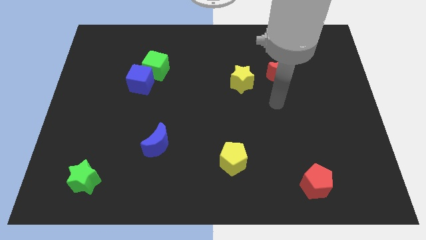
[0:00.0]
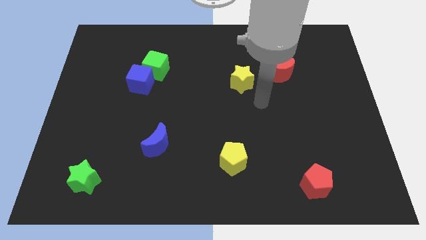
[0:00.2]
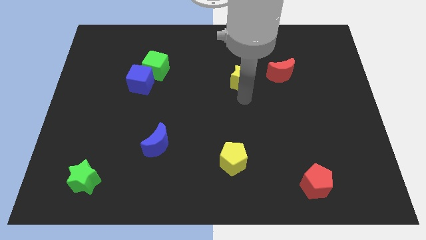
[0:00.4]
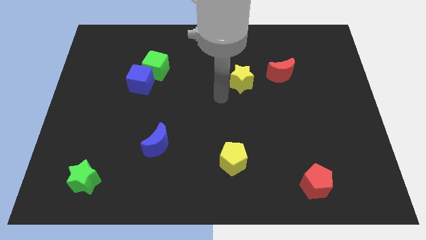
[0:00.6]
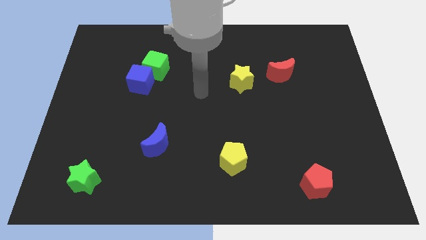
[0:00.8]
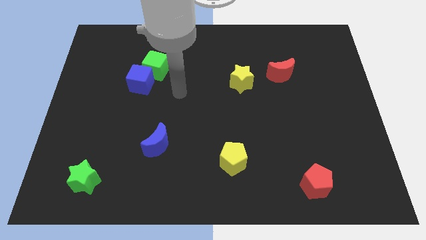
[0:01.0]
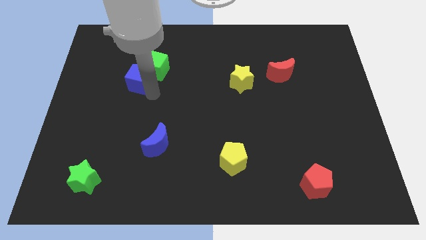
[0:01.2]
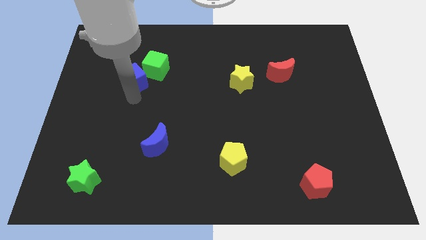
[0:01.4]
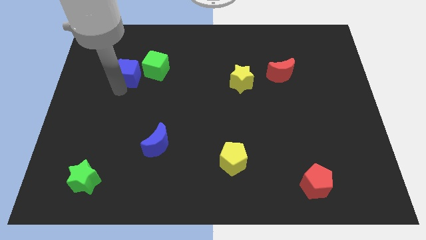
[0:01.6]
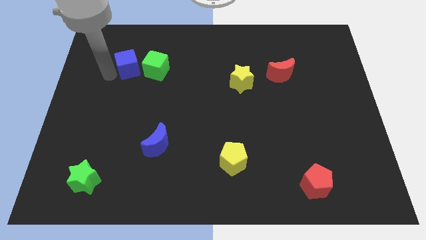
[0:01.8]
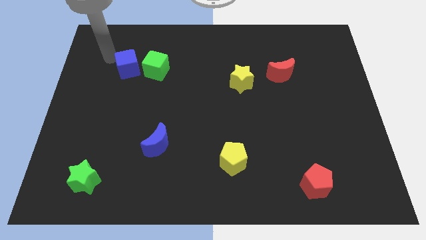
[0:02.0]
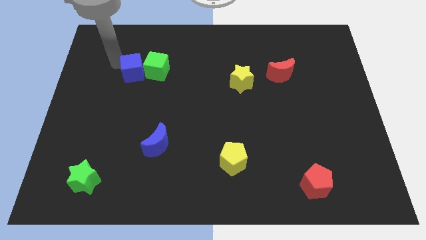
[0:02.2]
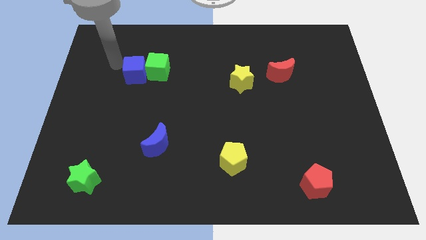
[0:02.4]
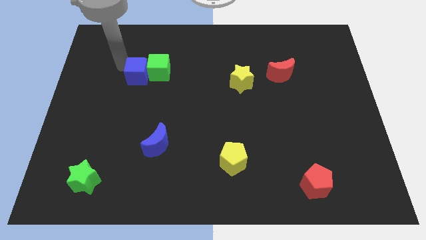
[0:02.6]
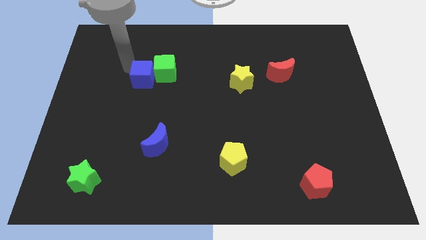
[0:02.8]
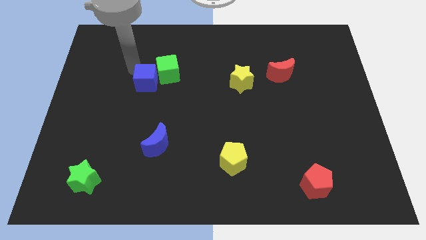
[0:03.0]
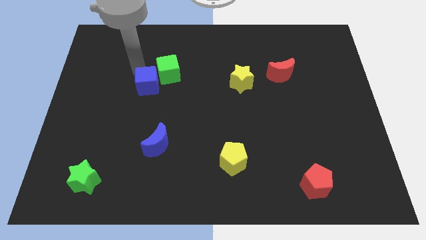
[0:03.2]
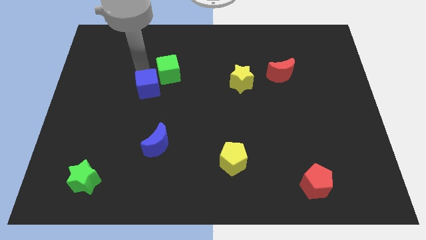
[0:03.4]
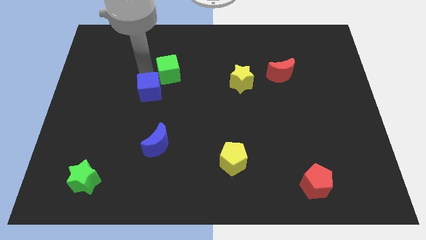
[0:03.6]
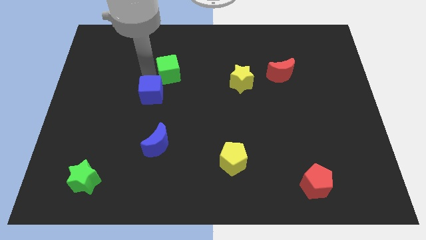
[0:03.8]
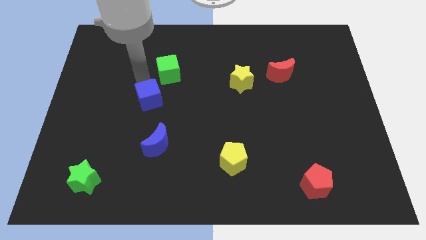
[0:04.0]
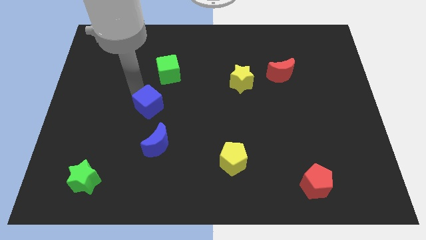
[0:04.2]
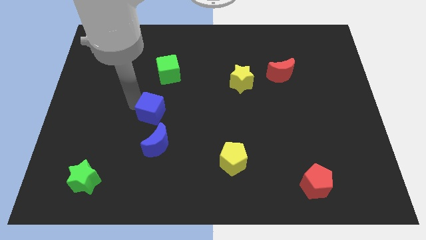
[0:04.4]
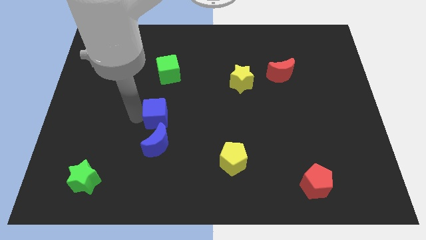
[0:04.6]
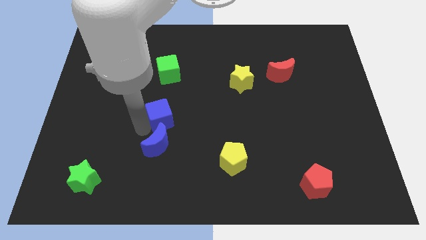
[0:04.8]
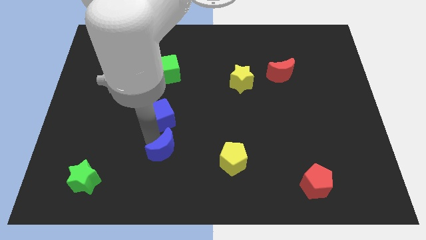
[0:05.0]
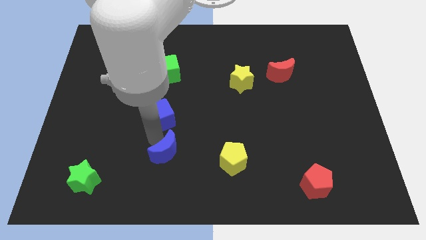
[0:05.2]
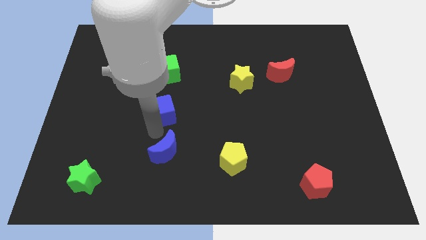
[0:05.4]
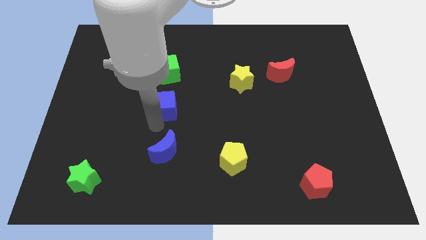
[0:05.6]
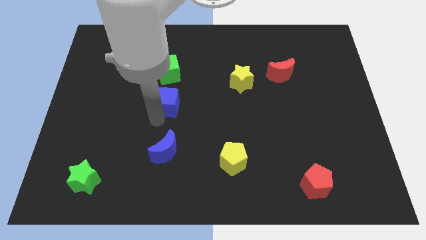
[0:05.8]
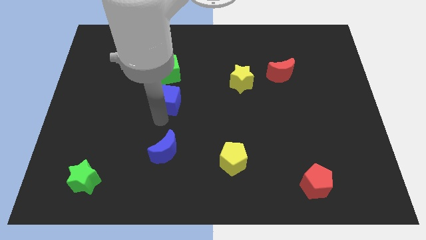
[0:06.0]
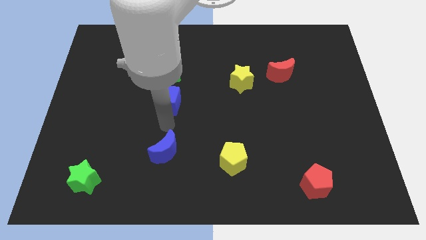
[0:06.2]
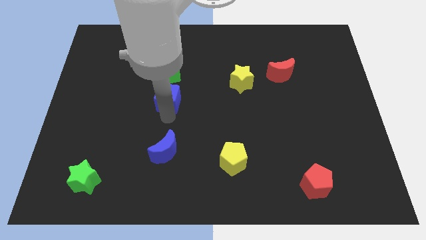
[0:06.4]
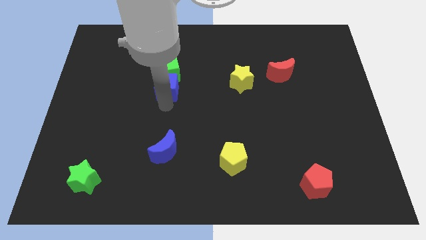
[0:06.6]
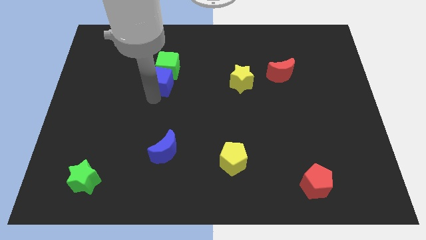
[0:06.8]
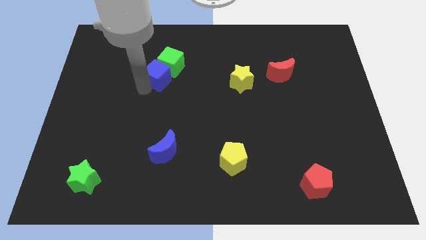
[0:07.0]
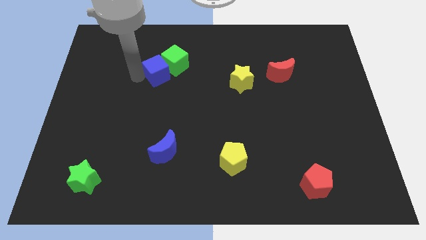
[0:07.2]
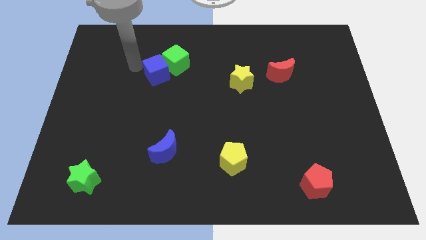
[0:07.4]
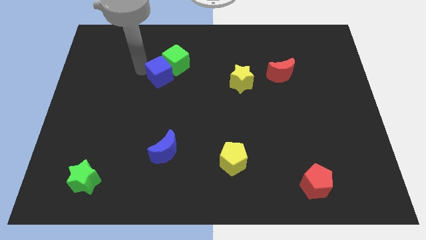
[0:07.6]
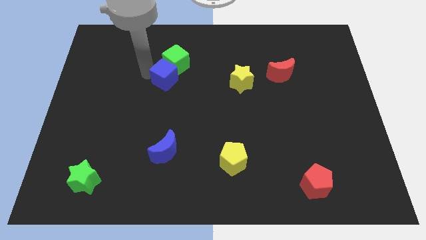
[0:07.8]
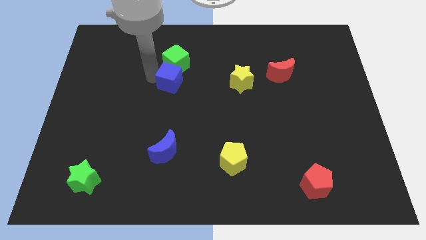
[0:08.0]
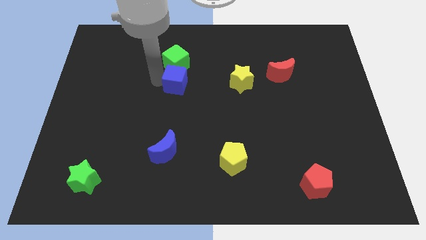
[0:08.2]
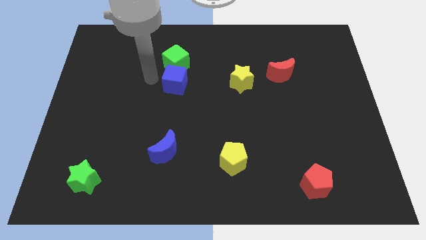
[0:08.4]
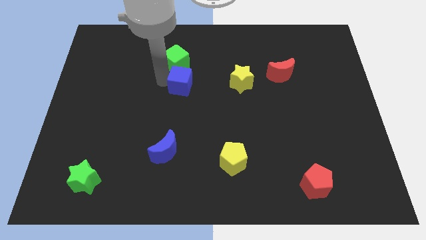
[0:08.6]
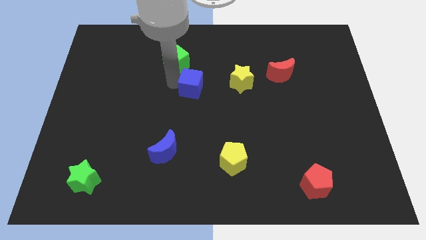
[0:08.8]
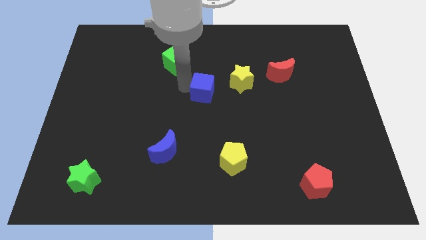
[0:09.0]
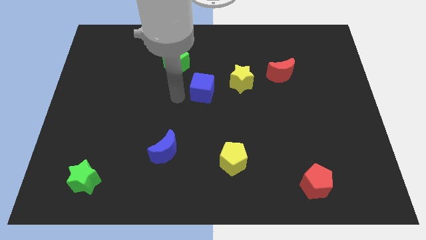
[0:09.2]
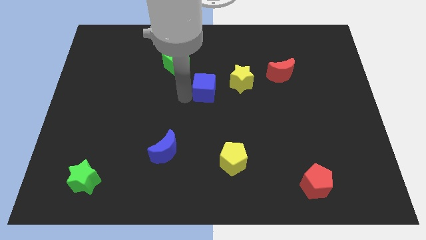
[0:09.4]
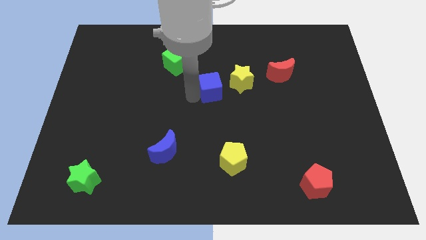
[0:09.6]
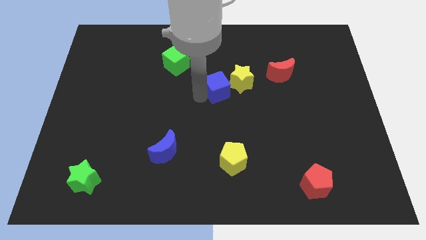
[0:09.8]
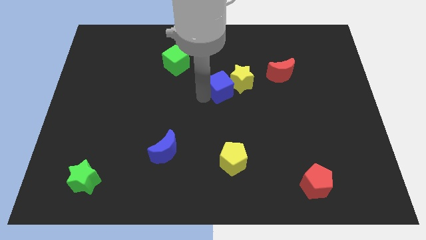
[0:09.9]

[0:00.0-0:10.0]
move the blue cube next to the yellow star

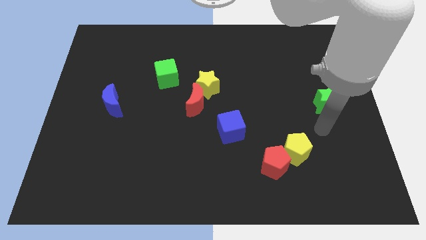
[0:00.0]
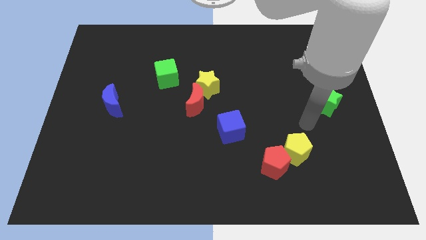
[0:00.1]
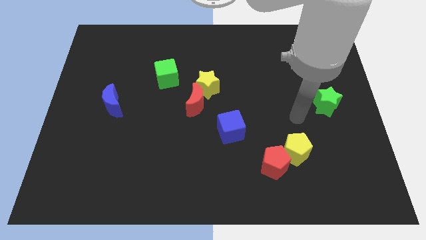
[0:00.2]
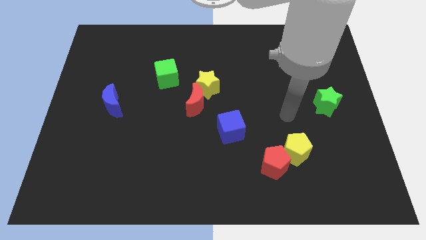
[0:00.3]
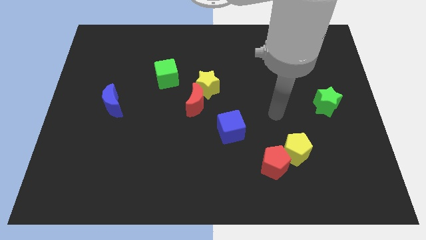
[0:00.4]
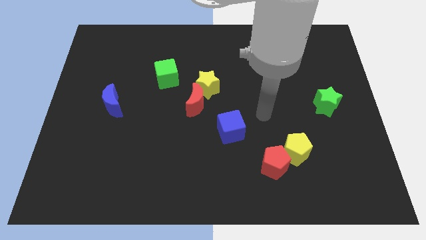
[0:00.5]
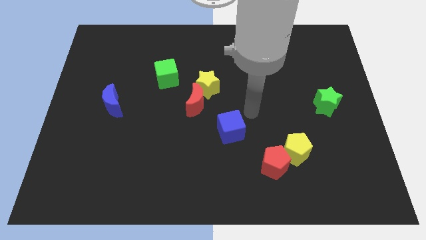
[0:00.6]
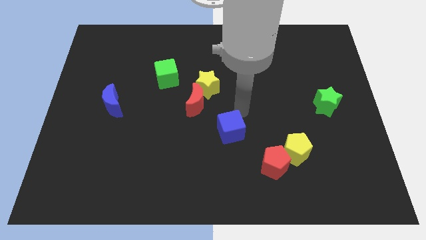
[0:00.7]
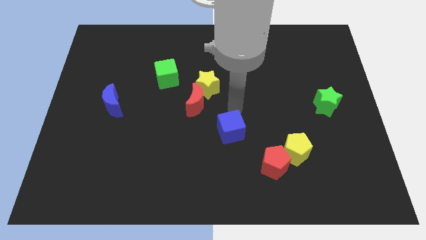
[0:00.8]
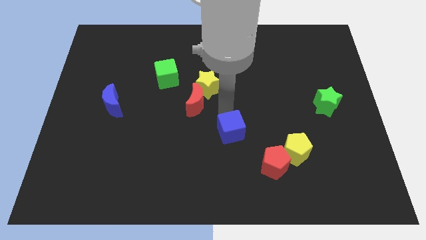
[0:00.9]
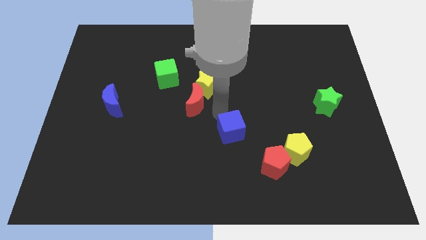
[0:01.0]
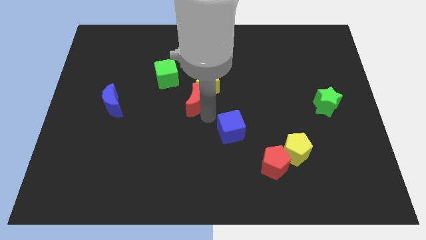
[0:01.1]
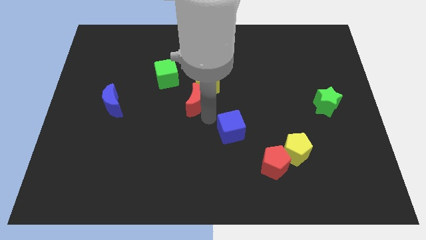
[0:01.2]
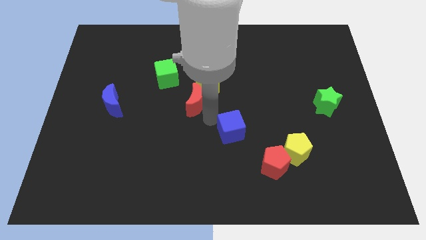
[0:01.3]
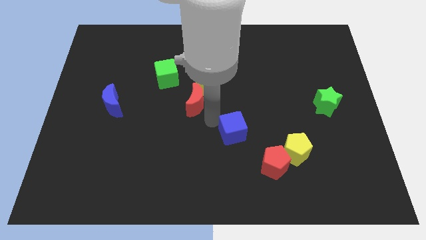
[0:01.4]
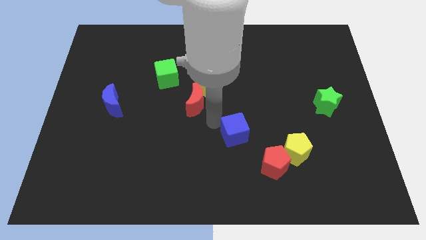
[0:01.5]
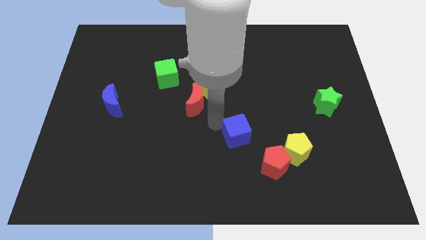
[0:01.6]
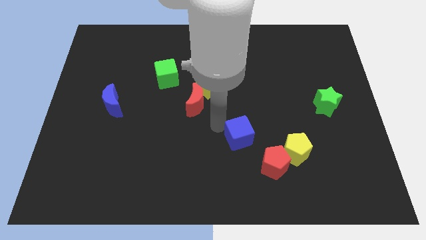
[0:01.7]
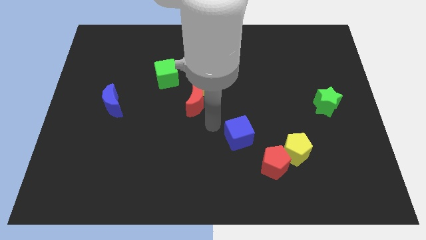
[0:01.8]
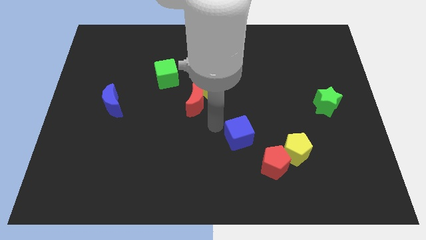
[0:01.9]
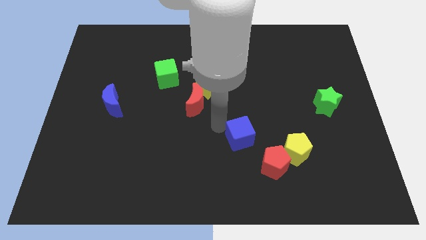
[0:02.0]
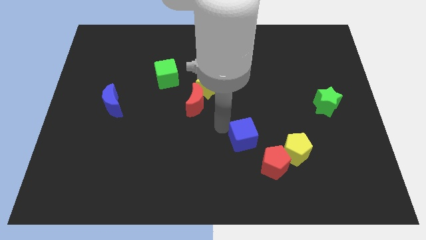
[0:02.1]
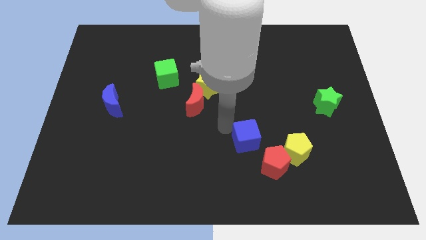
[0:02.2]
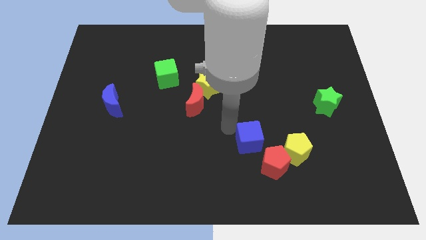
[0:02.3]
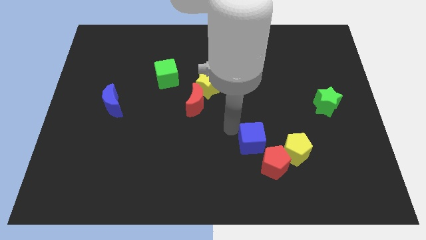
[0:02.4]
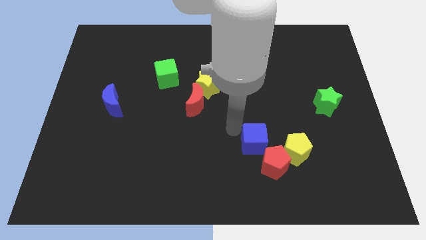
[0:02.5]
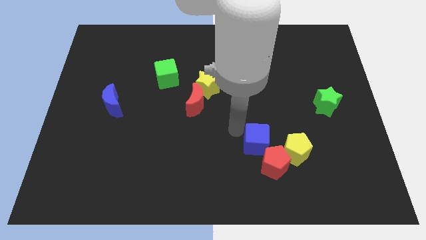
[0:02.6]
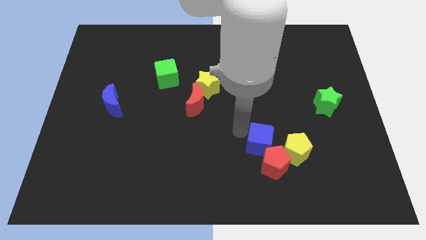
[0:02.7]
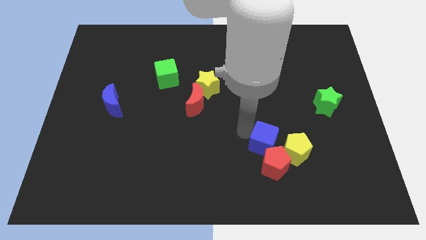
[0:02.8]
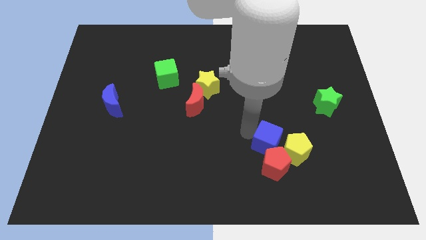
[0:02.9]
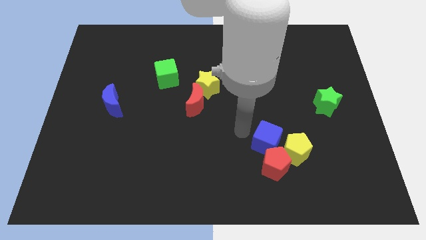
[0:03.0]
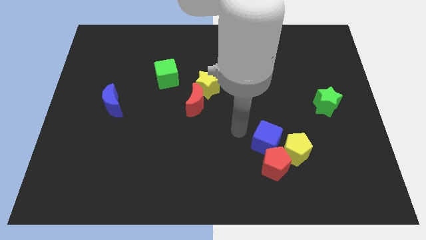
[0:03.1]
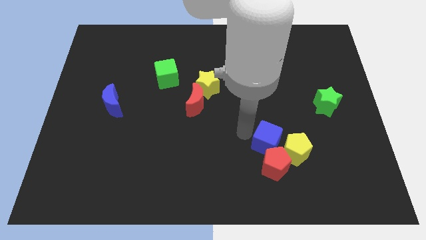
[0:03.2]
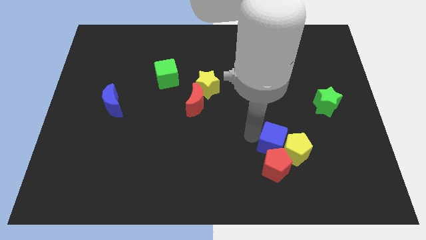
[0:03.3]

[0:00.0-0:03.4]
push the blue cube towards the yellow pentagon
